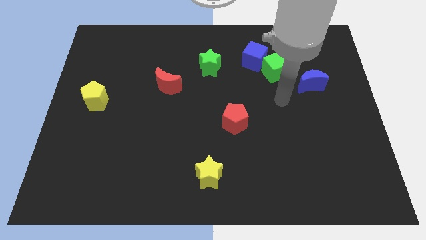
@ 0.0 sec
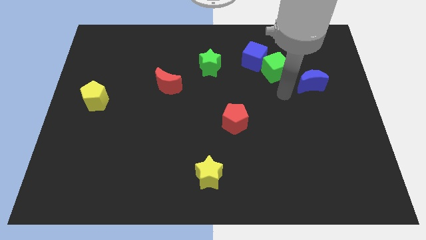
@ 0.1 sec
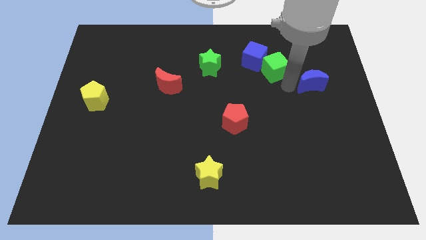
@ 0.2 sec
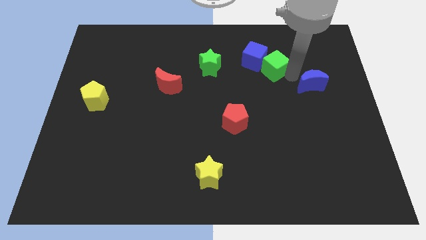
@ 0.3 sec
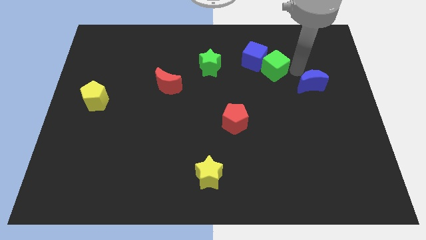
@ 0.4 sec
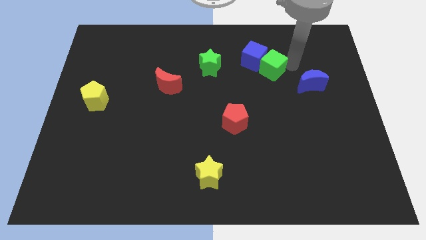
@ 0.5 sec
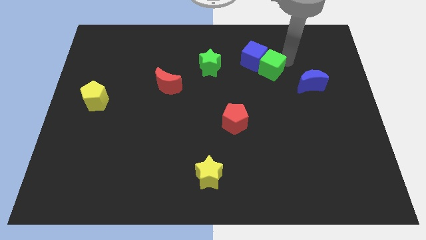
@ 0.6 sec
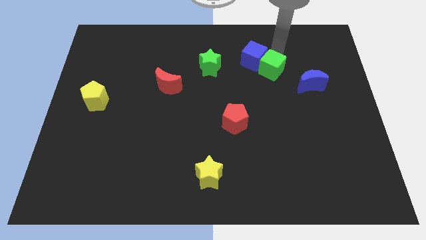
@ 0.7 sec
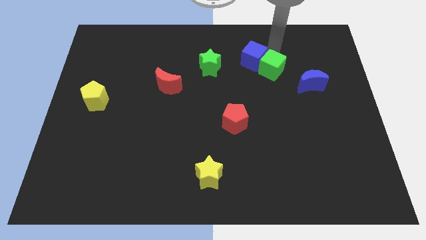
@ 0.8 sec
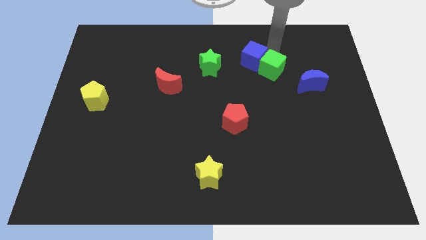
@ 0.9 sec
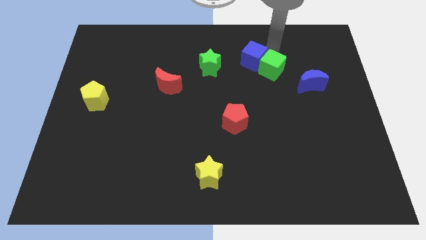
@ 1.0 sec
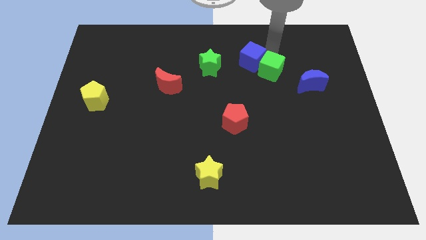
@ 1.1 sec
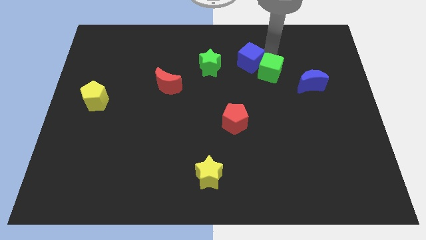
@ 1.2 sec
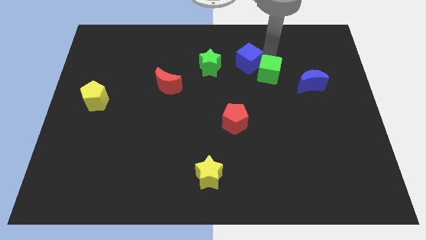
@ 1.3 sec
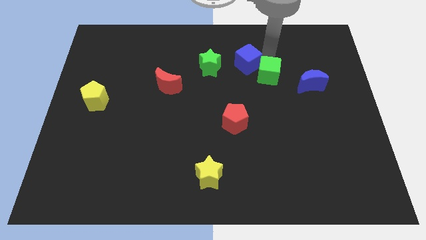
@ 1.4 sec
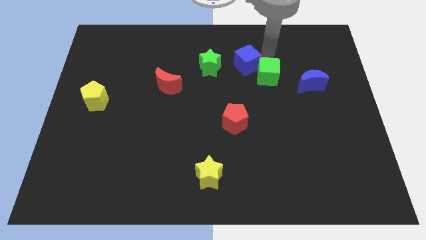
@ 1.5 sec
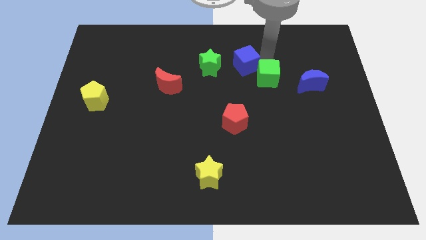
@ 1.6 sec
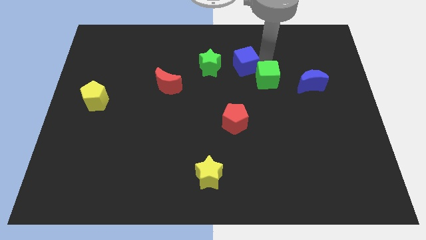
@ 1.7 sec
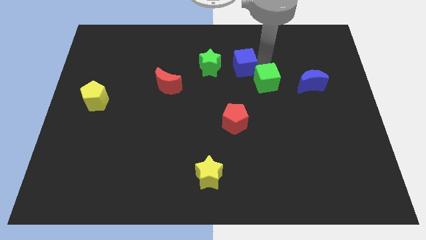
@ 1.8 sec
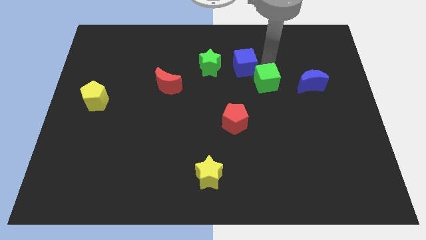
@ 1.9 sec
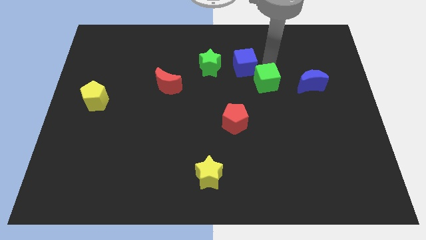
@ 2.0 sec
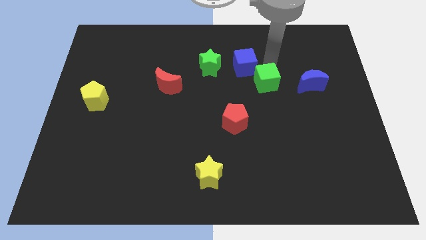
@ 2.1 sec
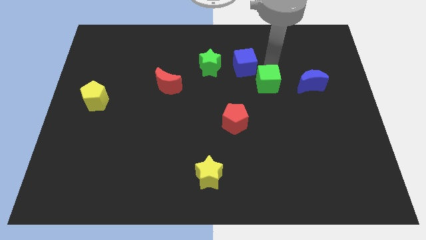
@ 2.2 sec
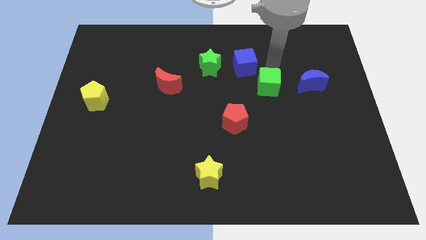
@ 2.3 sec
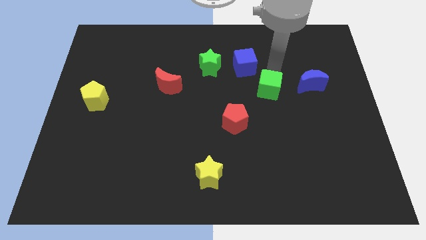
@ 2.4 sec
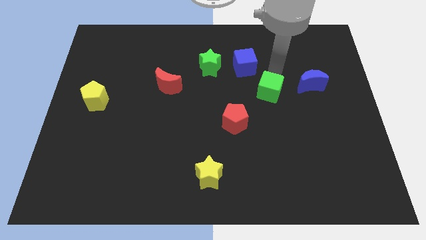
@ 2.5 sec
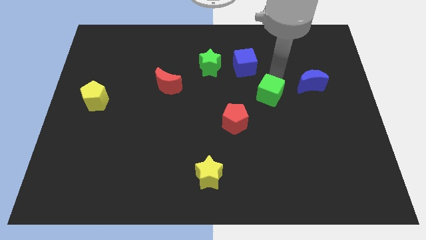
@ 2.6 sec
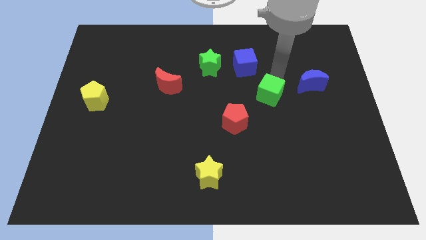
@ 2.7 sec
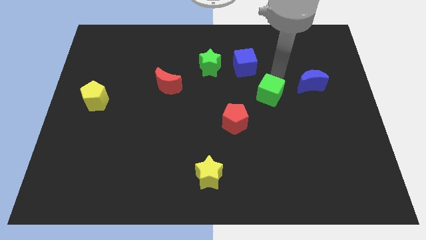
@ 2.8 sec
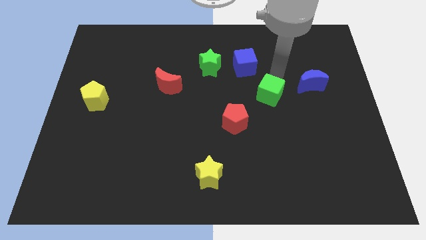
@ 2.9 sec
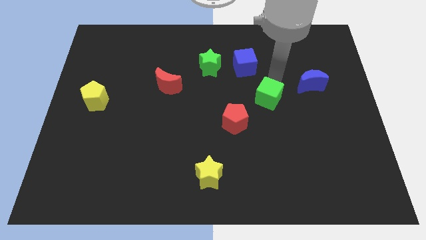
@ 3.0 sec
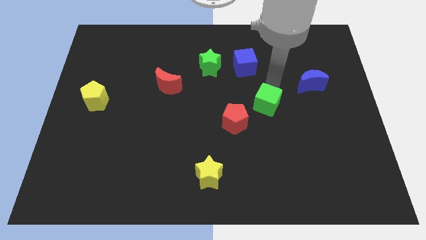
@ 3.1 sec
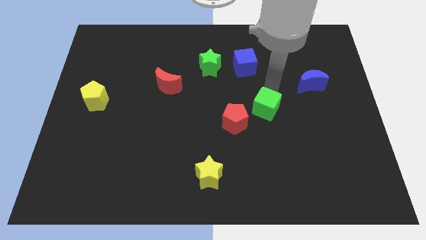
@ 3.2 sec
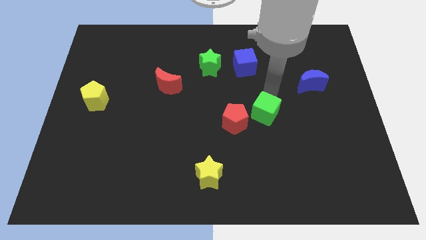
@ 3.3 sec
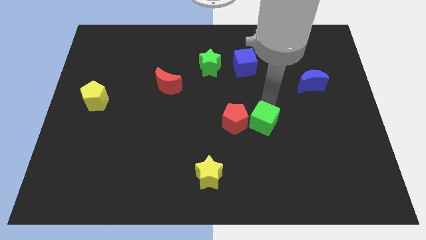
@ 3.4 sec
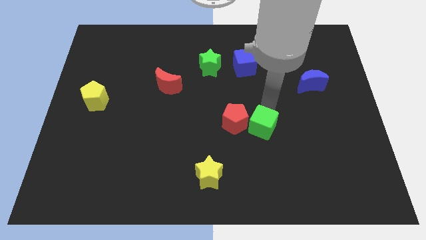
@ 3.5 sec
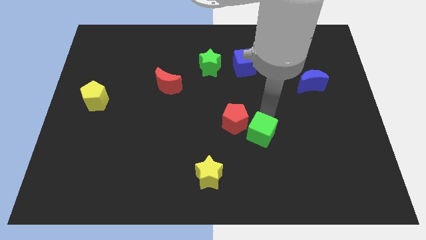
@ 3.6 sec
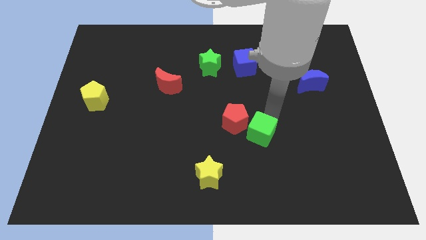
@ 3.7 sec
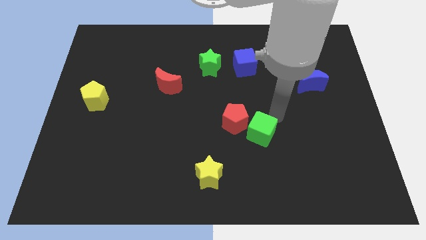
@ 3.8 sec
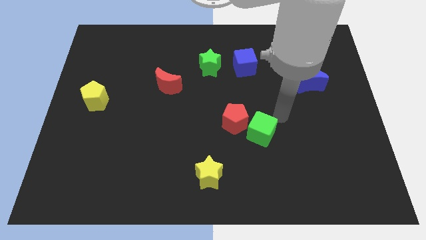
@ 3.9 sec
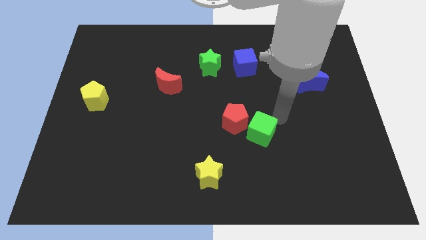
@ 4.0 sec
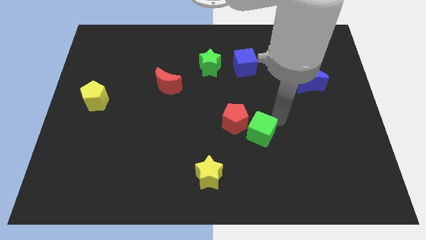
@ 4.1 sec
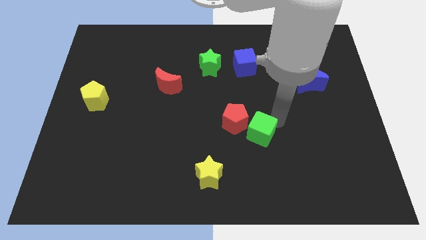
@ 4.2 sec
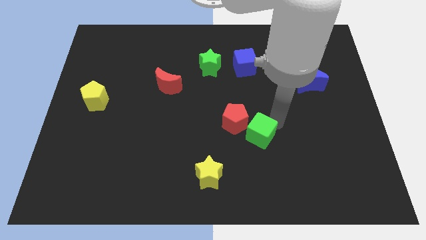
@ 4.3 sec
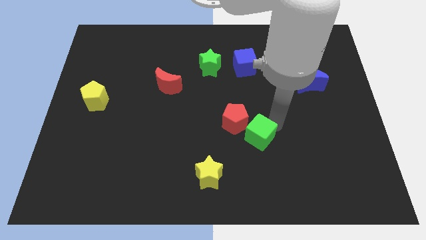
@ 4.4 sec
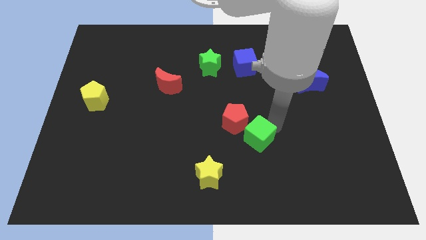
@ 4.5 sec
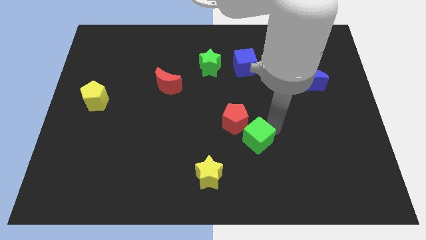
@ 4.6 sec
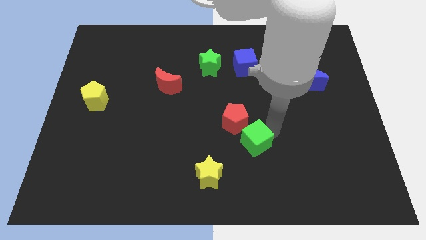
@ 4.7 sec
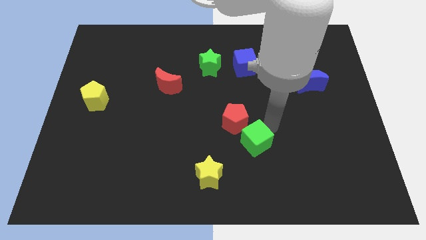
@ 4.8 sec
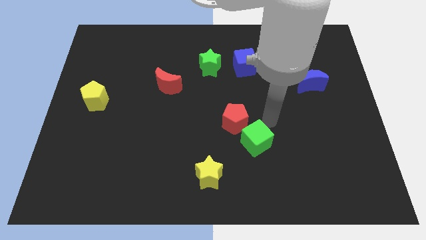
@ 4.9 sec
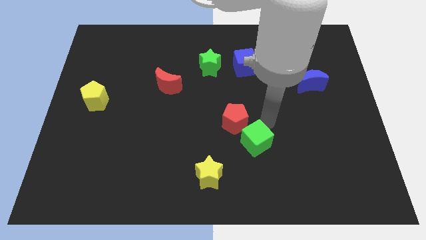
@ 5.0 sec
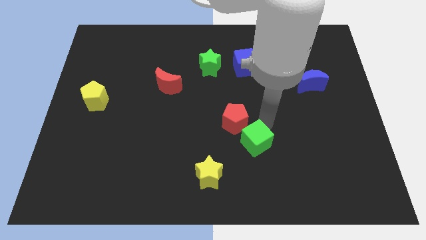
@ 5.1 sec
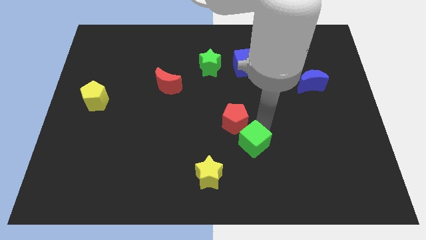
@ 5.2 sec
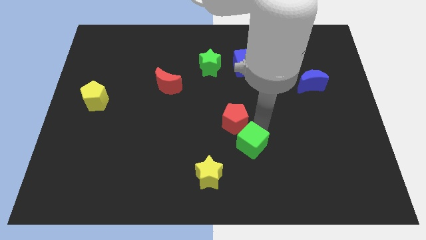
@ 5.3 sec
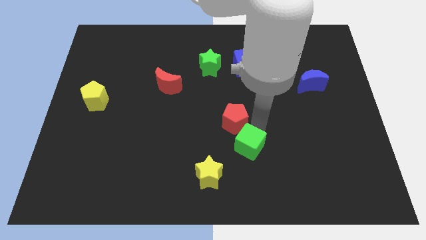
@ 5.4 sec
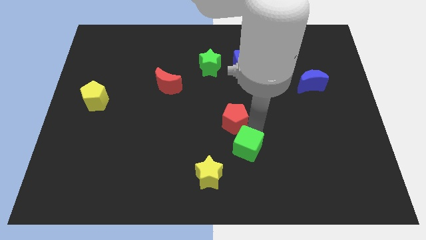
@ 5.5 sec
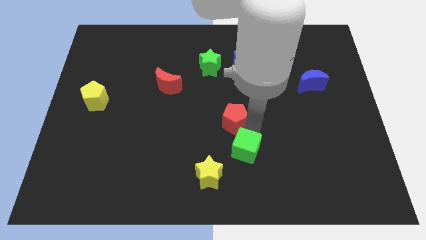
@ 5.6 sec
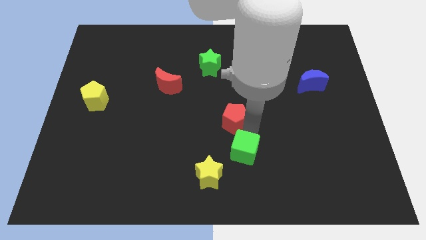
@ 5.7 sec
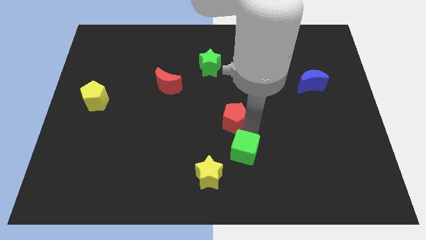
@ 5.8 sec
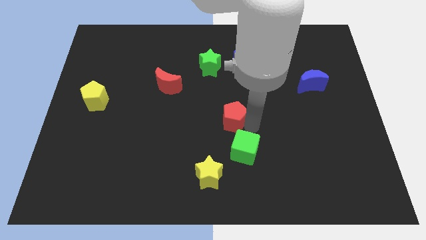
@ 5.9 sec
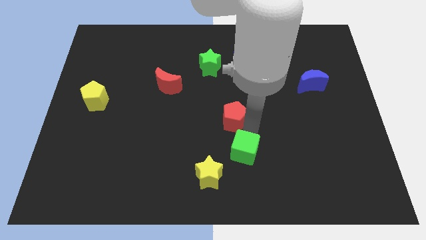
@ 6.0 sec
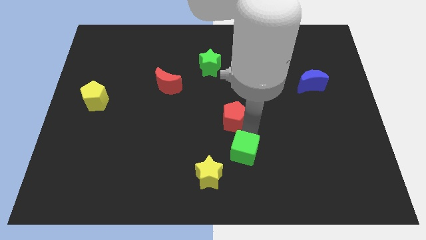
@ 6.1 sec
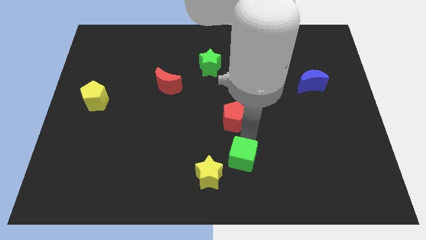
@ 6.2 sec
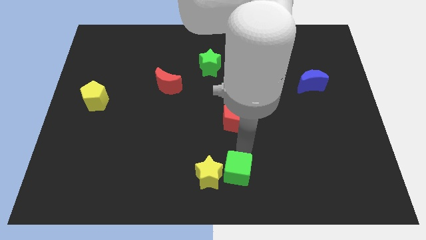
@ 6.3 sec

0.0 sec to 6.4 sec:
move the green cube to the bottom side

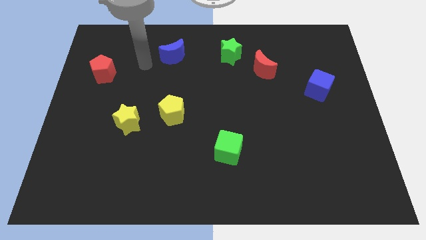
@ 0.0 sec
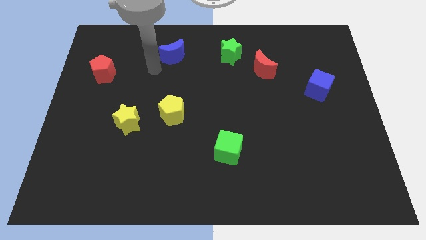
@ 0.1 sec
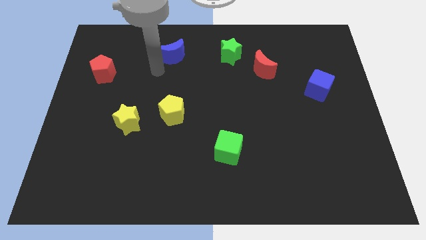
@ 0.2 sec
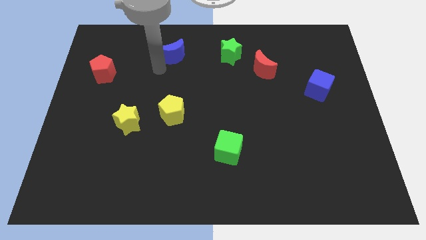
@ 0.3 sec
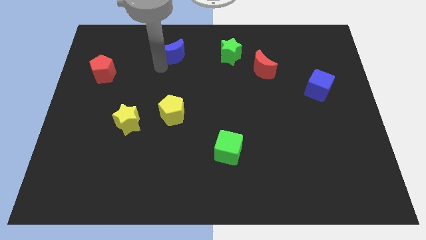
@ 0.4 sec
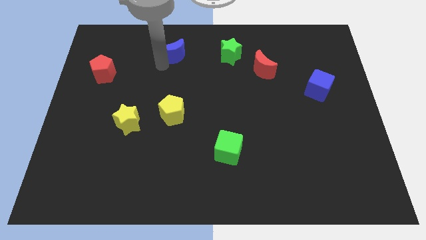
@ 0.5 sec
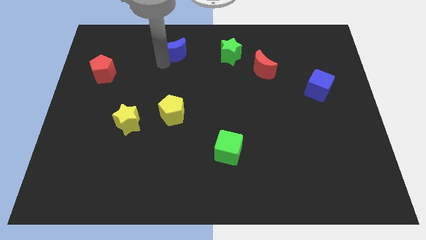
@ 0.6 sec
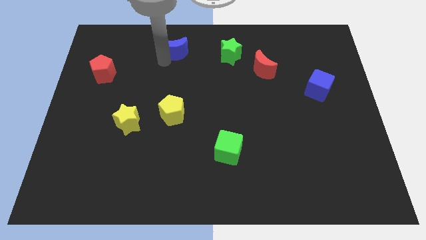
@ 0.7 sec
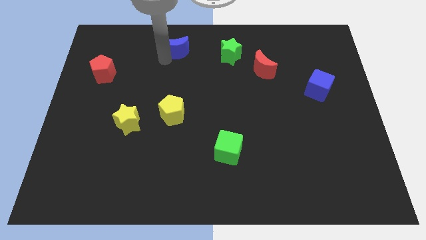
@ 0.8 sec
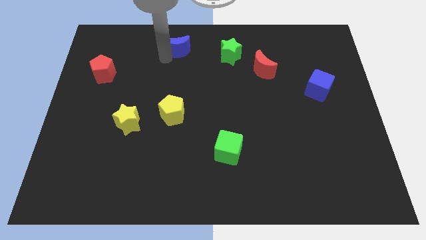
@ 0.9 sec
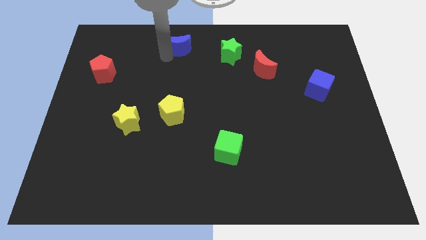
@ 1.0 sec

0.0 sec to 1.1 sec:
slide the blue moon to the towards your base
